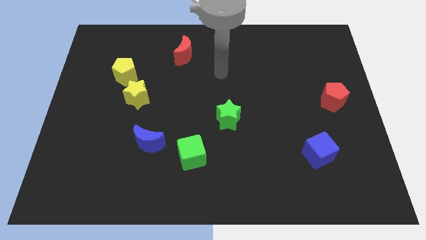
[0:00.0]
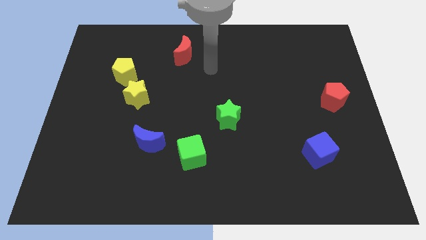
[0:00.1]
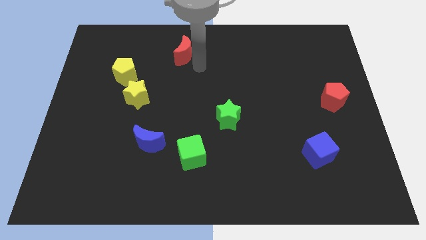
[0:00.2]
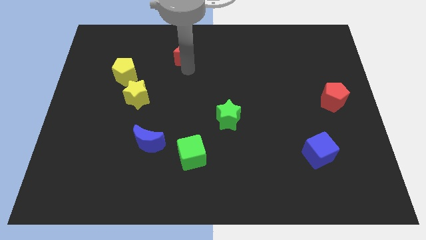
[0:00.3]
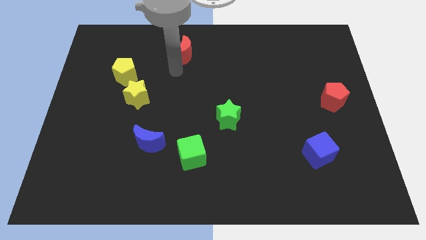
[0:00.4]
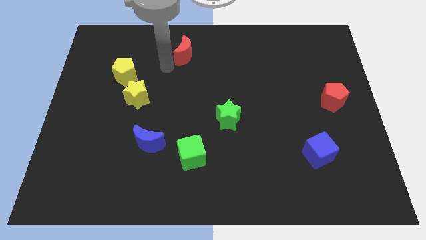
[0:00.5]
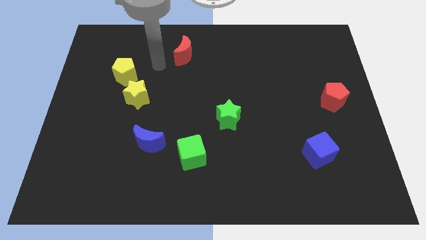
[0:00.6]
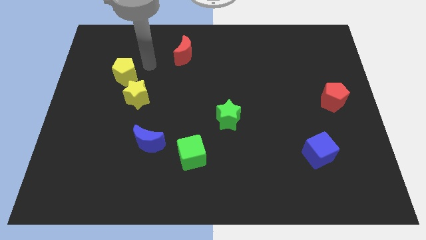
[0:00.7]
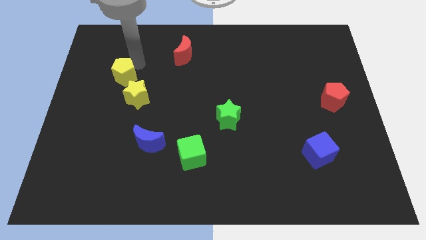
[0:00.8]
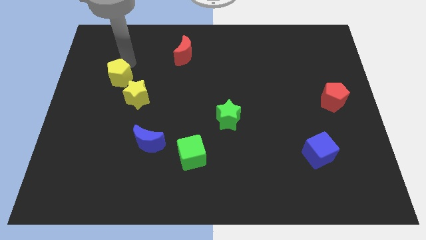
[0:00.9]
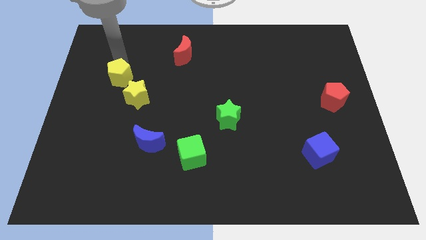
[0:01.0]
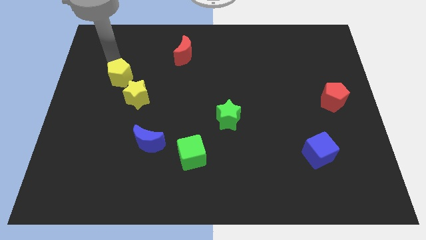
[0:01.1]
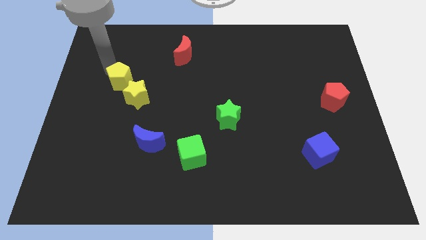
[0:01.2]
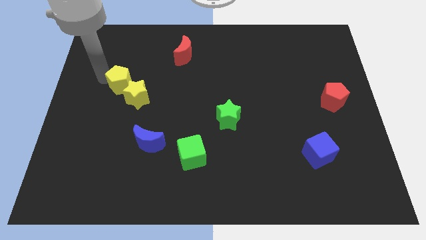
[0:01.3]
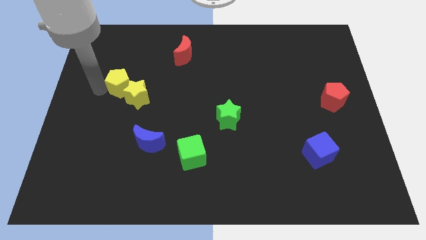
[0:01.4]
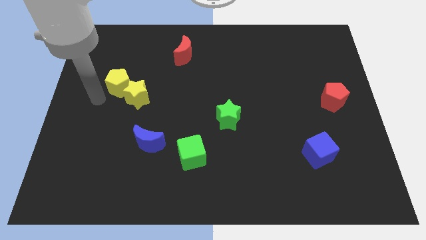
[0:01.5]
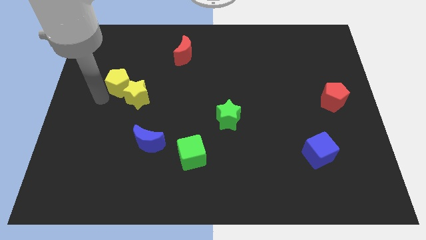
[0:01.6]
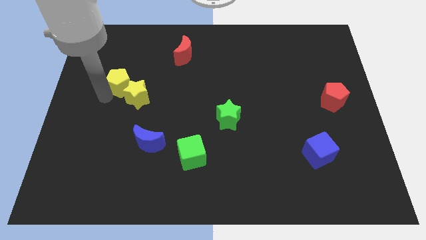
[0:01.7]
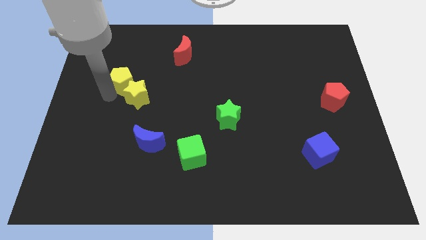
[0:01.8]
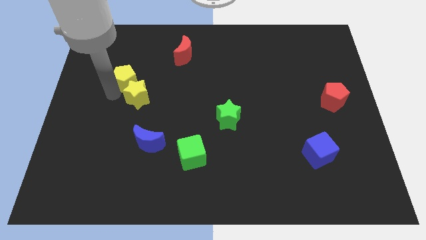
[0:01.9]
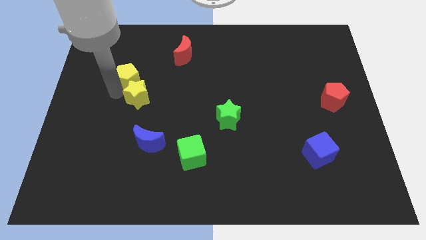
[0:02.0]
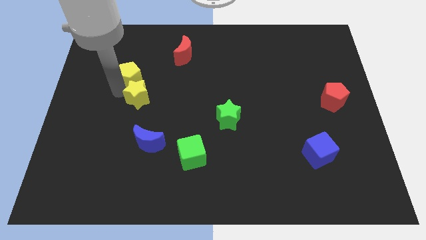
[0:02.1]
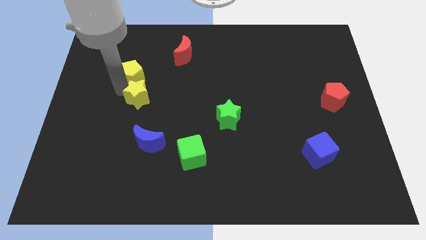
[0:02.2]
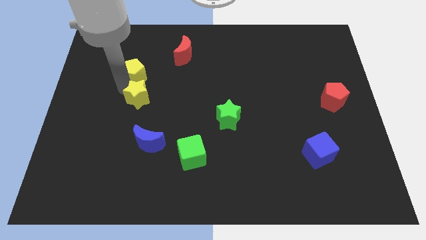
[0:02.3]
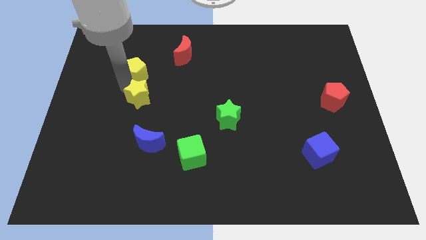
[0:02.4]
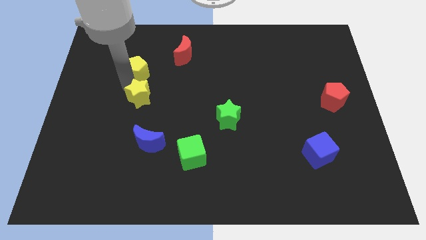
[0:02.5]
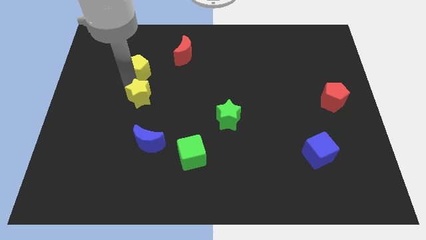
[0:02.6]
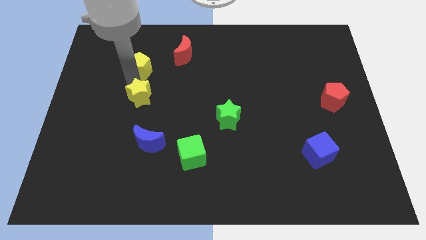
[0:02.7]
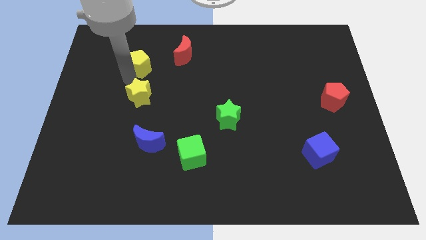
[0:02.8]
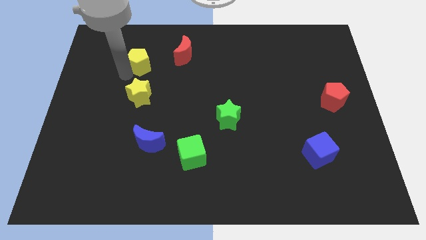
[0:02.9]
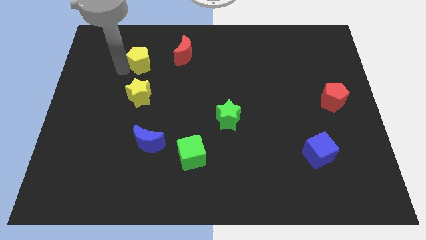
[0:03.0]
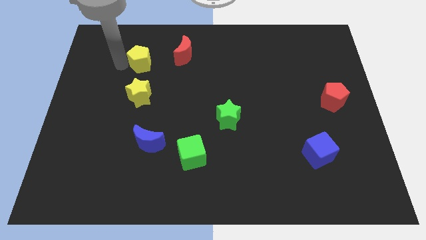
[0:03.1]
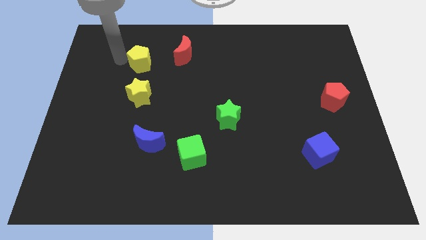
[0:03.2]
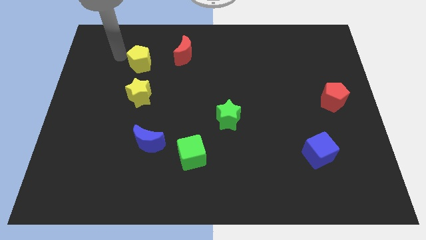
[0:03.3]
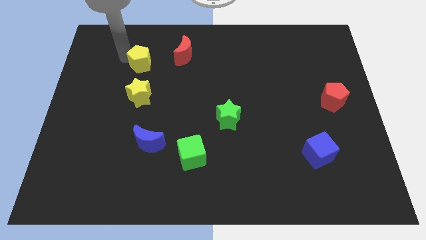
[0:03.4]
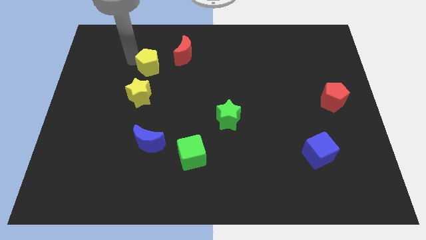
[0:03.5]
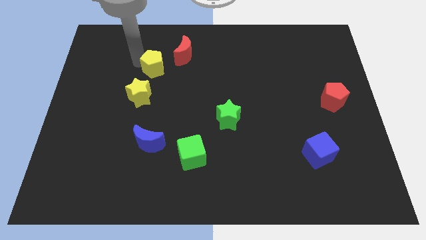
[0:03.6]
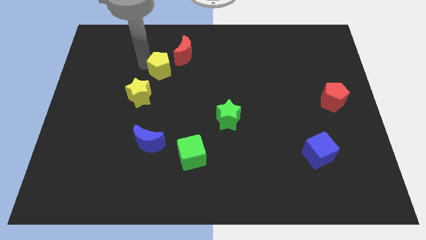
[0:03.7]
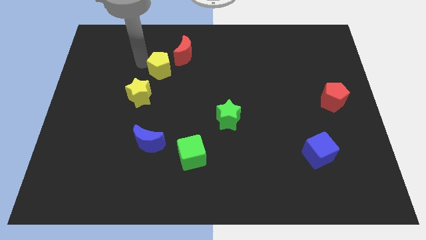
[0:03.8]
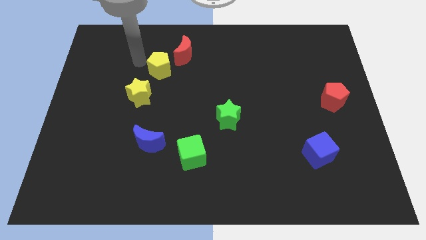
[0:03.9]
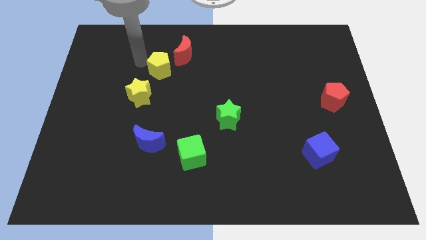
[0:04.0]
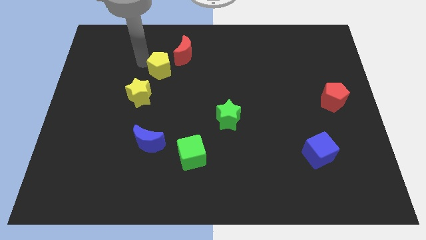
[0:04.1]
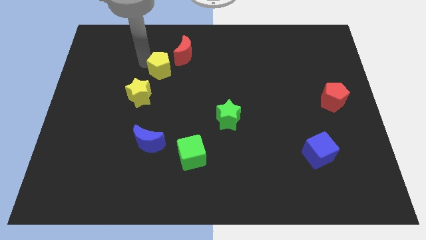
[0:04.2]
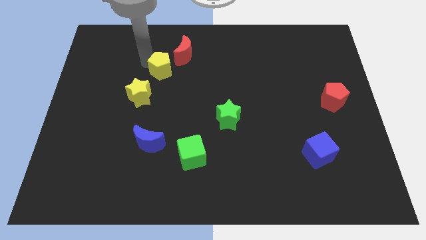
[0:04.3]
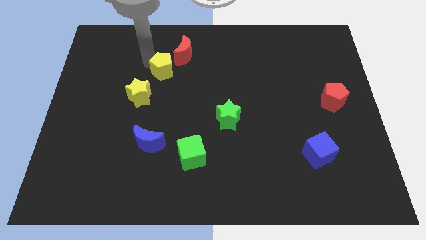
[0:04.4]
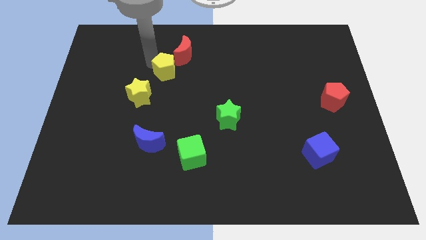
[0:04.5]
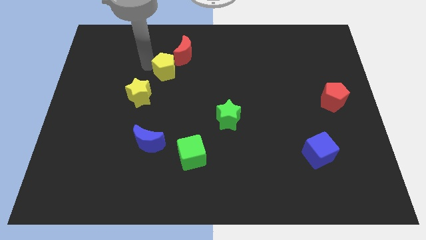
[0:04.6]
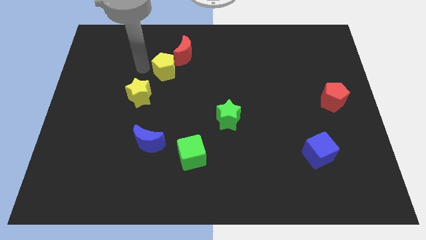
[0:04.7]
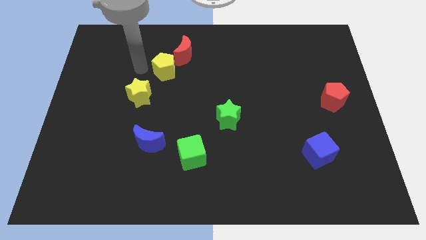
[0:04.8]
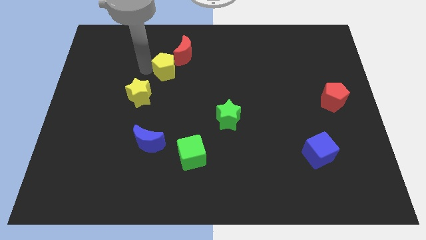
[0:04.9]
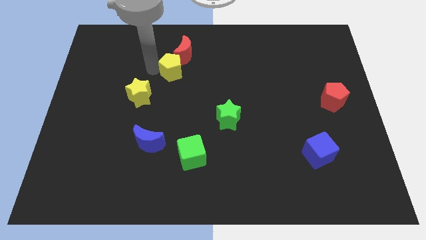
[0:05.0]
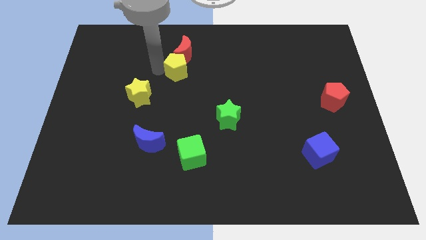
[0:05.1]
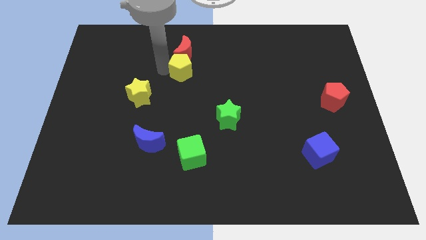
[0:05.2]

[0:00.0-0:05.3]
slide the yellow pentagon to the bottom right of the red moon

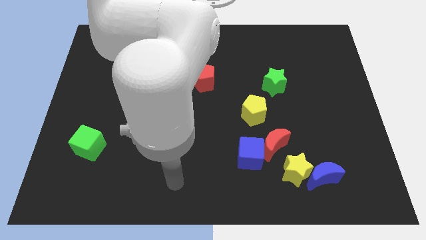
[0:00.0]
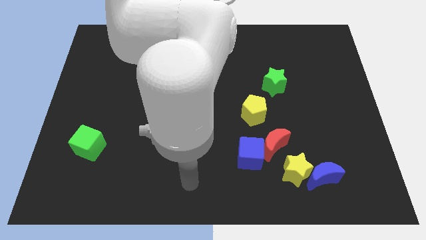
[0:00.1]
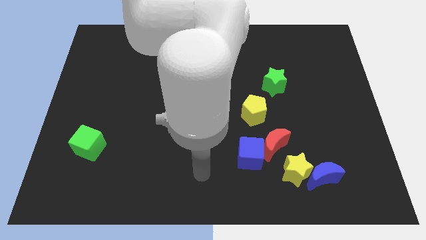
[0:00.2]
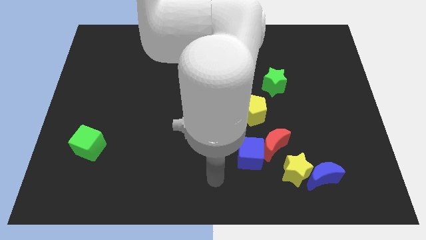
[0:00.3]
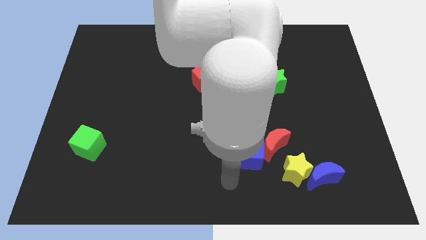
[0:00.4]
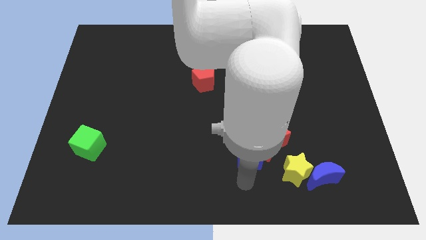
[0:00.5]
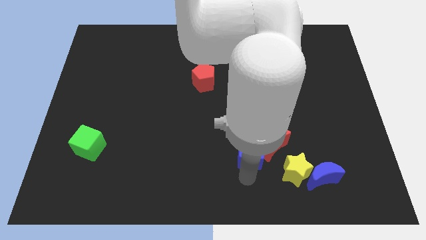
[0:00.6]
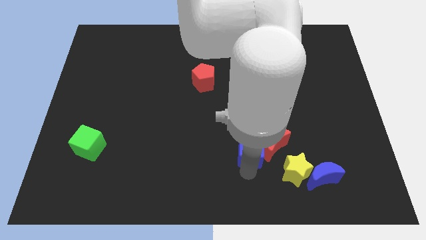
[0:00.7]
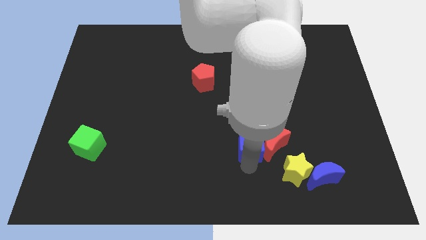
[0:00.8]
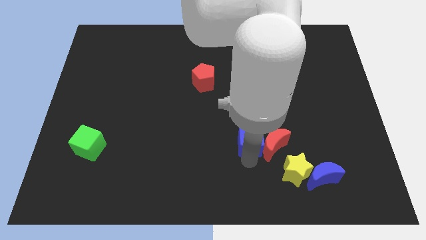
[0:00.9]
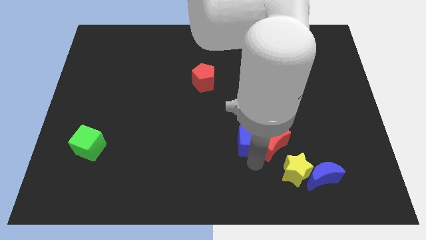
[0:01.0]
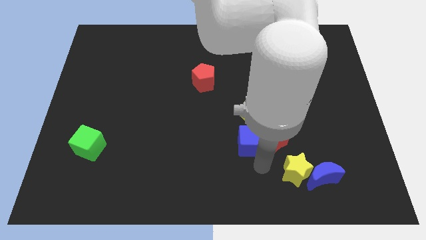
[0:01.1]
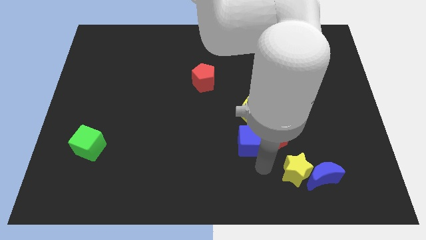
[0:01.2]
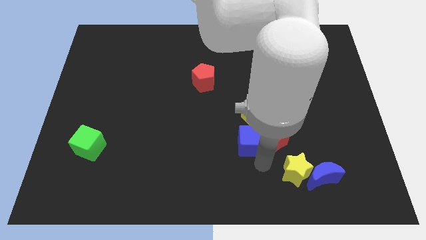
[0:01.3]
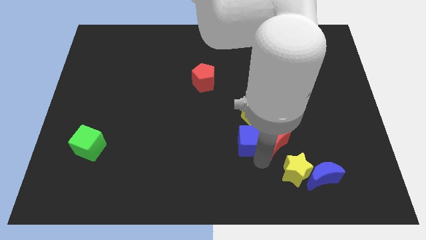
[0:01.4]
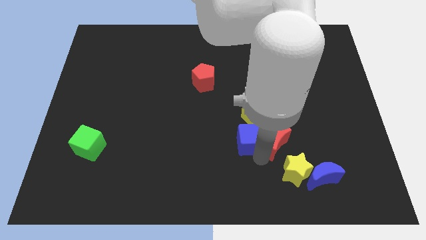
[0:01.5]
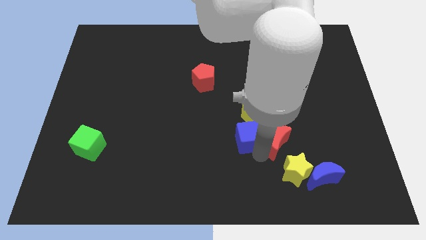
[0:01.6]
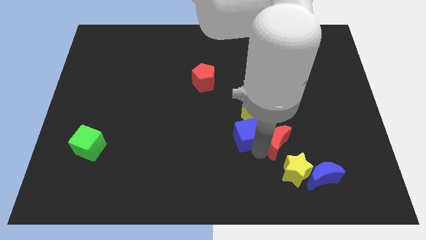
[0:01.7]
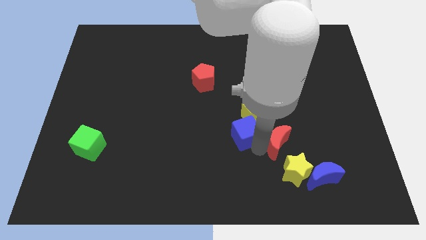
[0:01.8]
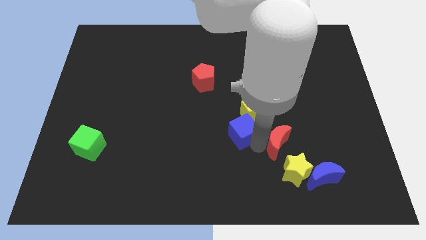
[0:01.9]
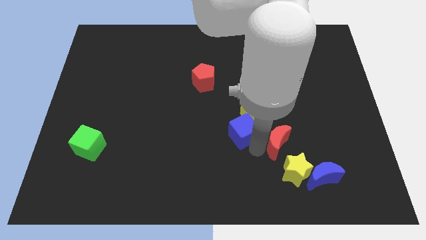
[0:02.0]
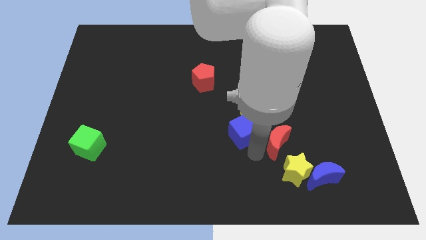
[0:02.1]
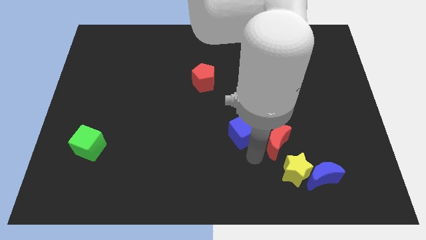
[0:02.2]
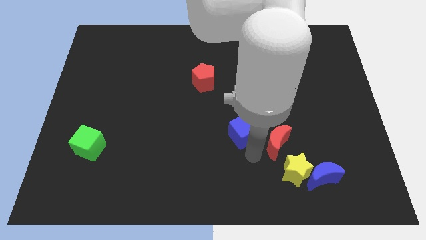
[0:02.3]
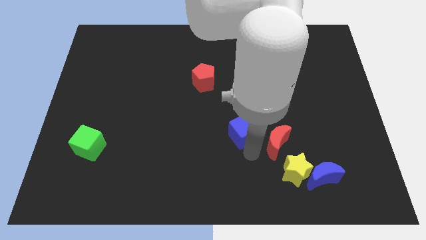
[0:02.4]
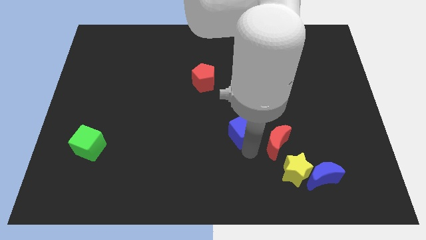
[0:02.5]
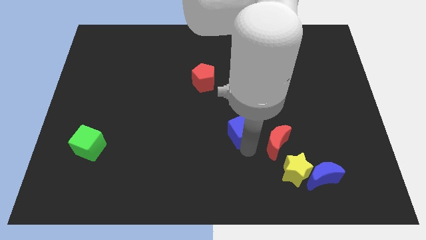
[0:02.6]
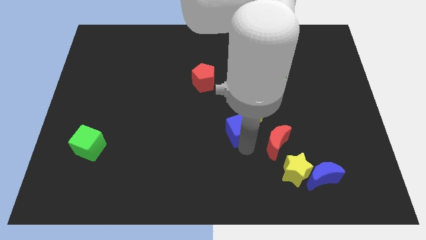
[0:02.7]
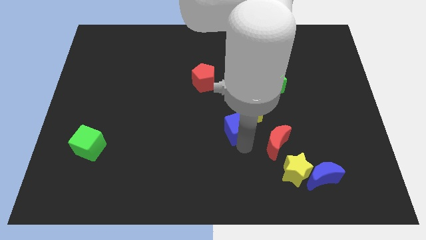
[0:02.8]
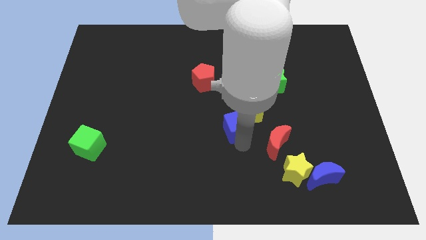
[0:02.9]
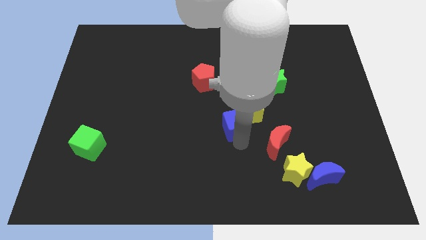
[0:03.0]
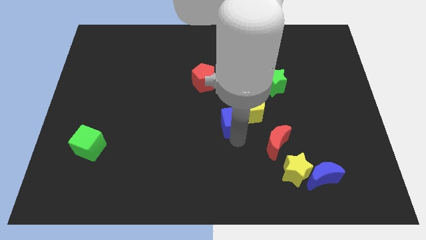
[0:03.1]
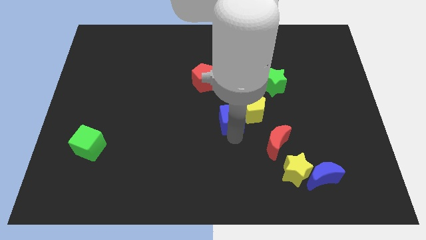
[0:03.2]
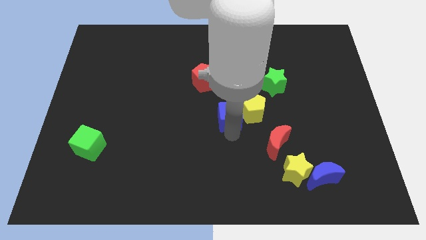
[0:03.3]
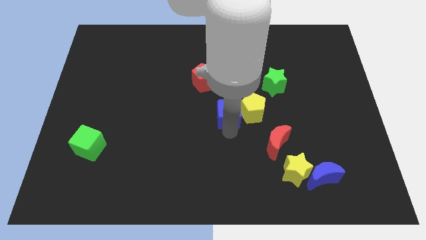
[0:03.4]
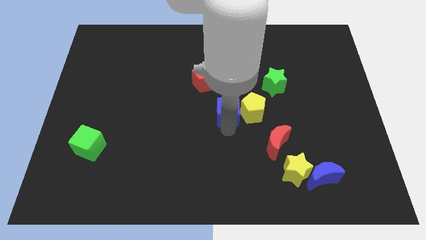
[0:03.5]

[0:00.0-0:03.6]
move the blue cube to the top left side of the yellow pentagon
